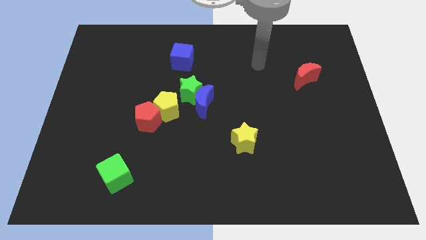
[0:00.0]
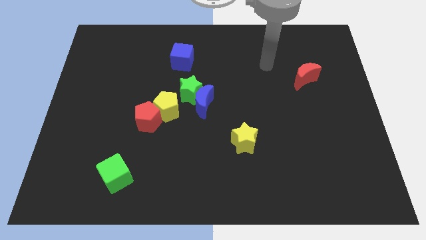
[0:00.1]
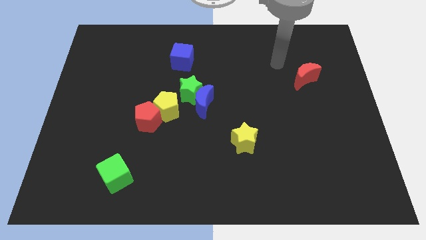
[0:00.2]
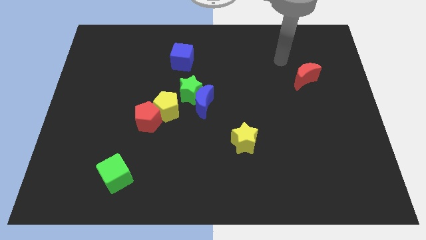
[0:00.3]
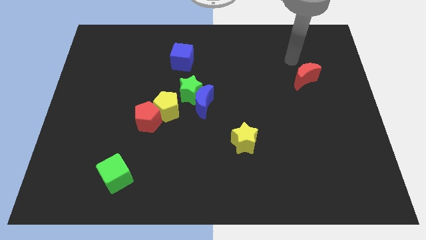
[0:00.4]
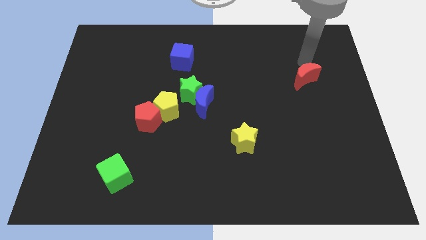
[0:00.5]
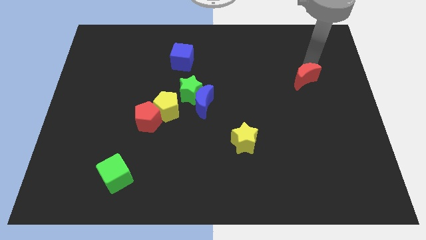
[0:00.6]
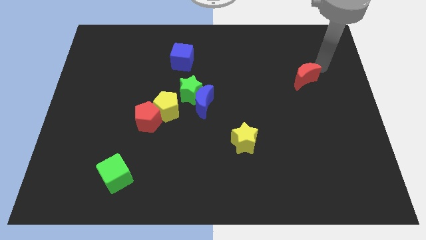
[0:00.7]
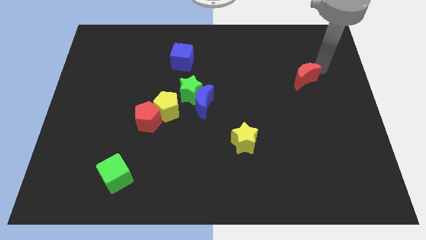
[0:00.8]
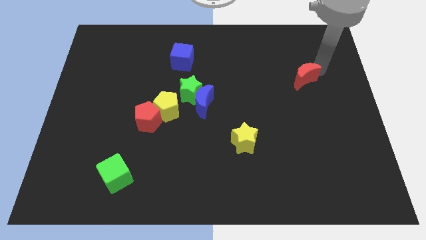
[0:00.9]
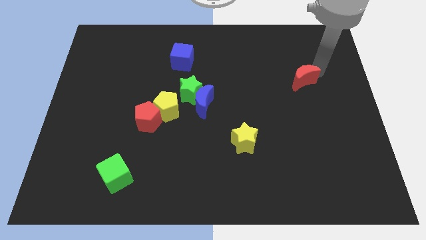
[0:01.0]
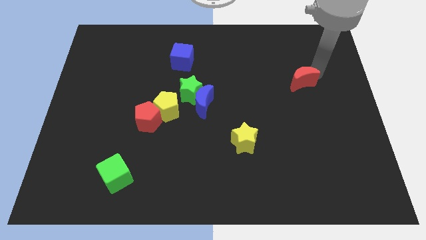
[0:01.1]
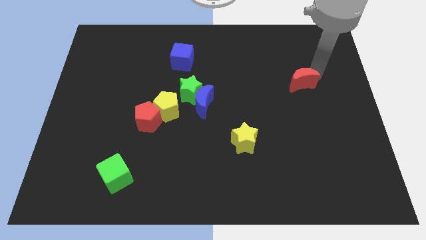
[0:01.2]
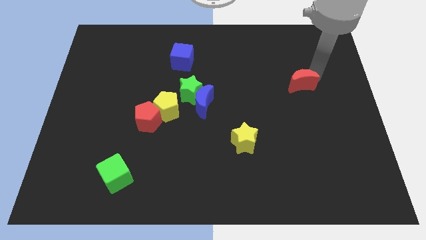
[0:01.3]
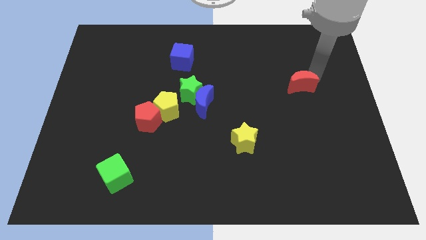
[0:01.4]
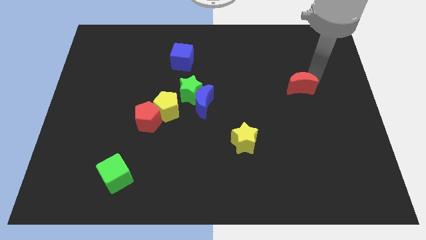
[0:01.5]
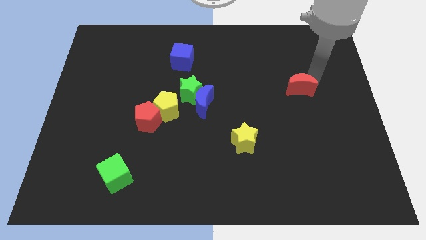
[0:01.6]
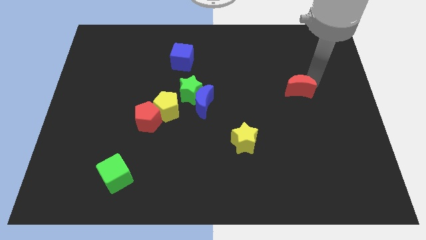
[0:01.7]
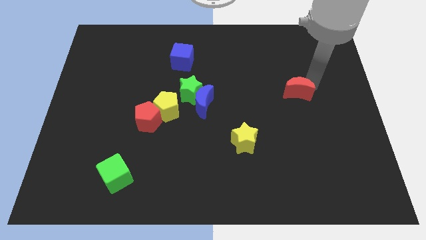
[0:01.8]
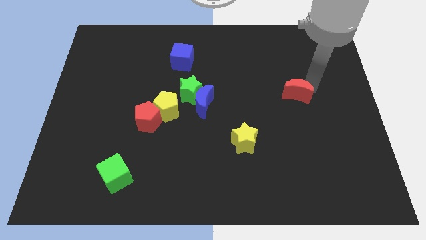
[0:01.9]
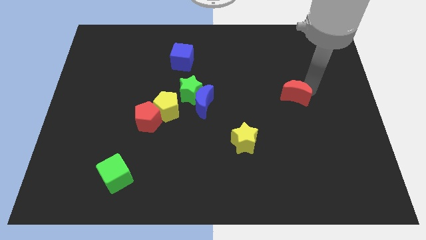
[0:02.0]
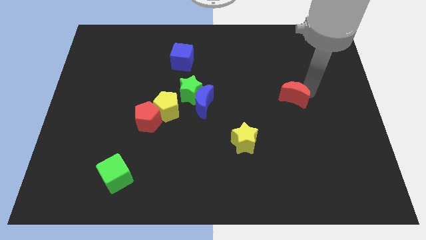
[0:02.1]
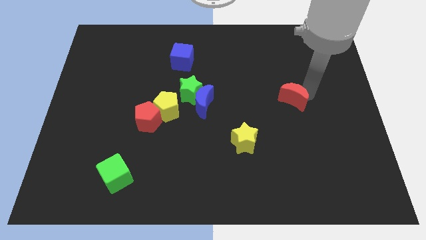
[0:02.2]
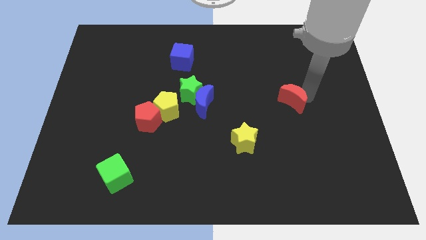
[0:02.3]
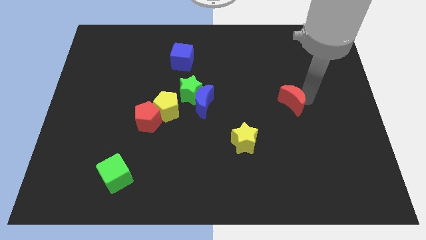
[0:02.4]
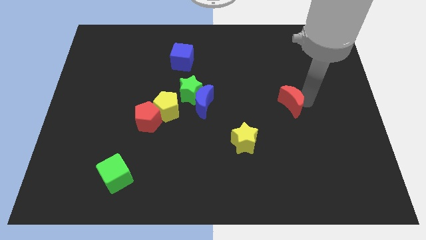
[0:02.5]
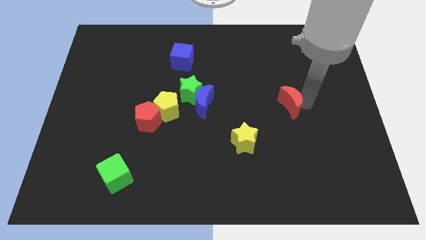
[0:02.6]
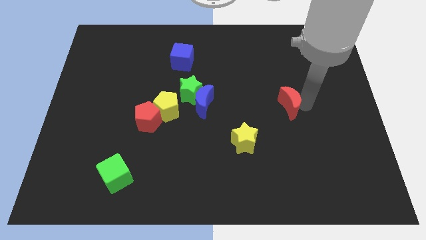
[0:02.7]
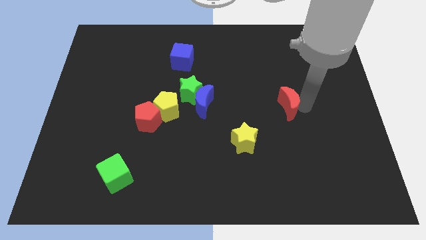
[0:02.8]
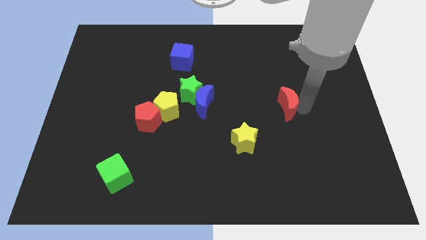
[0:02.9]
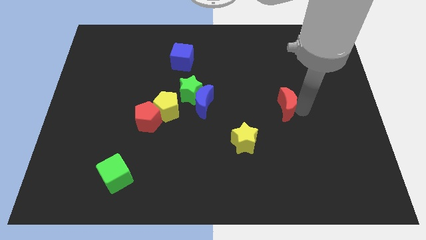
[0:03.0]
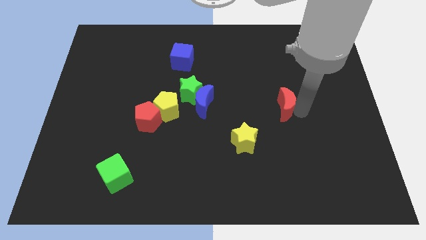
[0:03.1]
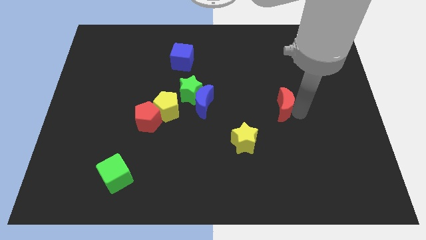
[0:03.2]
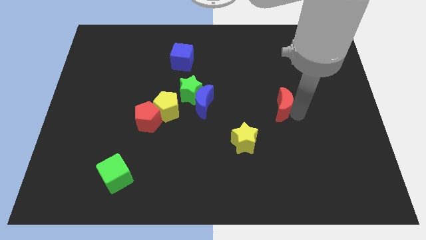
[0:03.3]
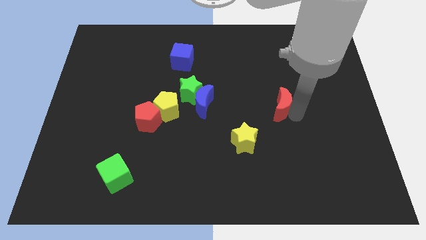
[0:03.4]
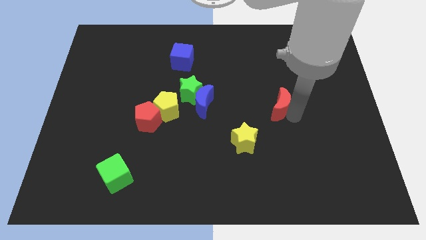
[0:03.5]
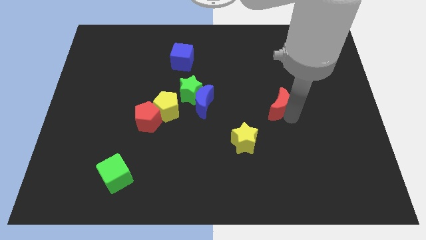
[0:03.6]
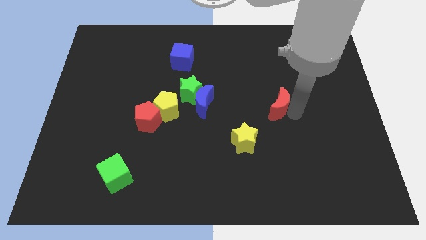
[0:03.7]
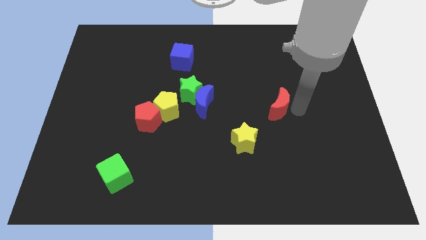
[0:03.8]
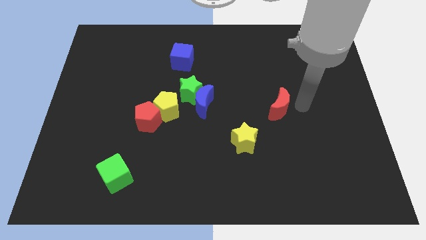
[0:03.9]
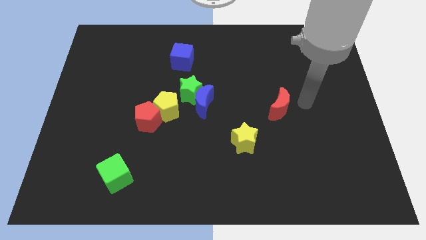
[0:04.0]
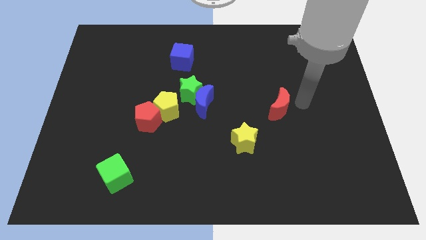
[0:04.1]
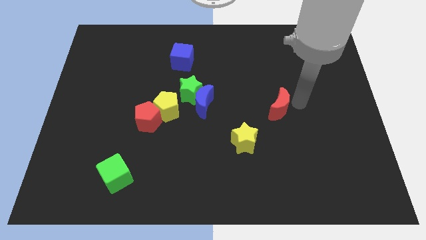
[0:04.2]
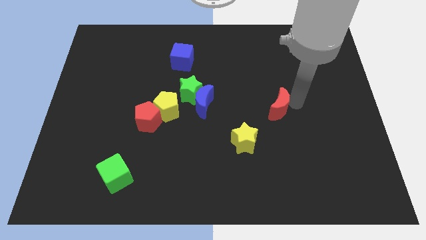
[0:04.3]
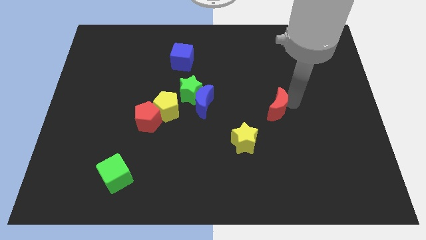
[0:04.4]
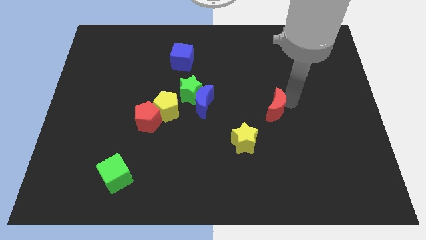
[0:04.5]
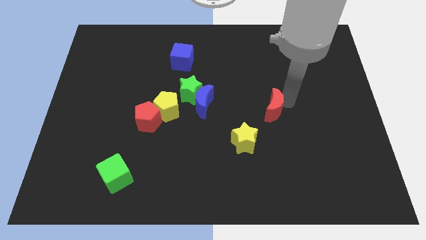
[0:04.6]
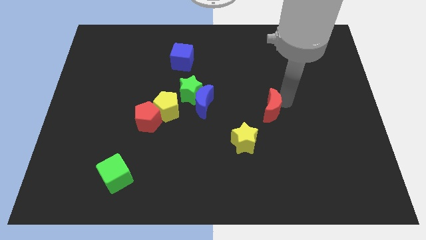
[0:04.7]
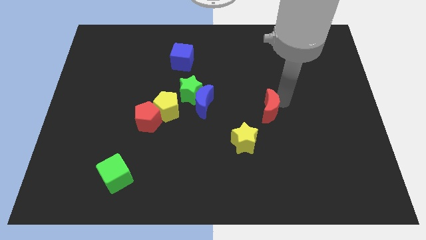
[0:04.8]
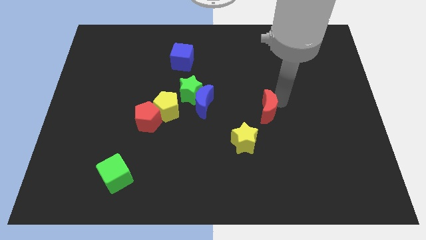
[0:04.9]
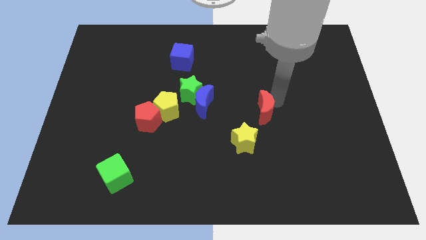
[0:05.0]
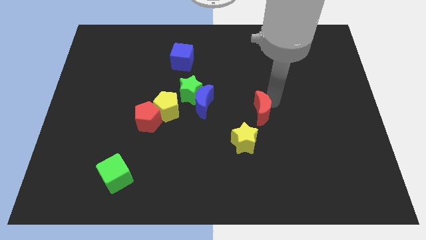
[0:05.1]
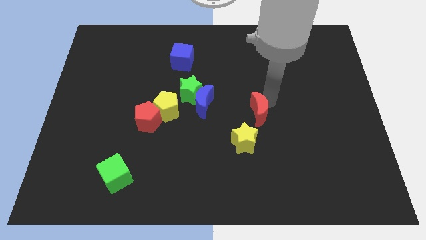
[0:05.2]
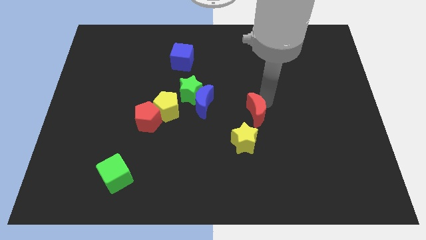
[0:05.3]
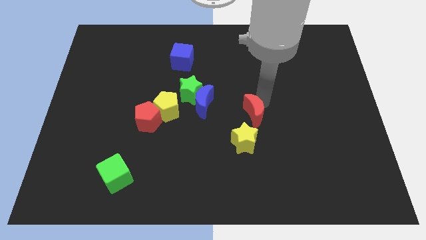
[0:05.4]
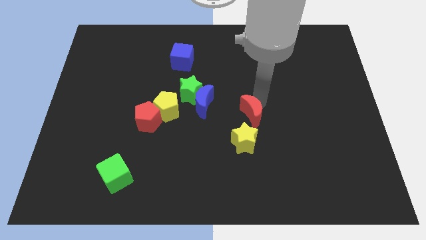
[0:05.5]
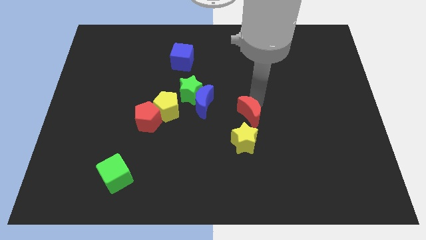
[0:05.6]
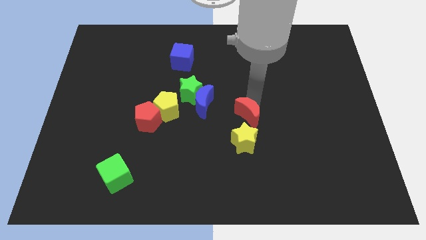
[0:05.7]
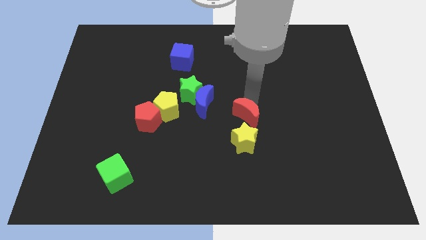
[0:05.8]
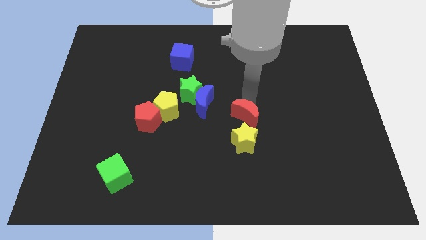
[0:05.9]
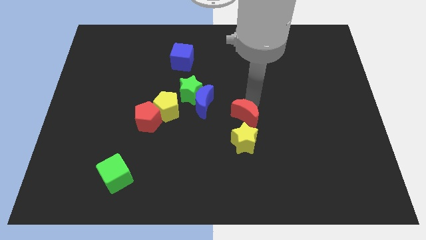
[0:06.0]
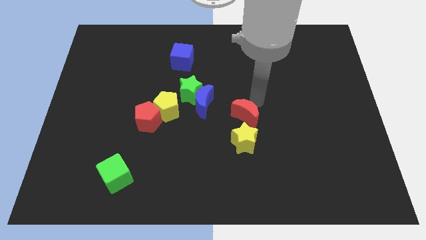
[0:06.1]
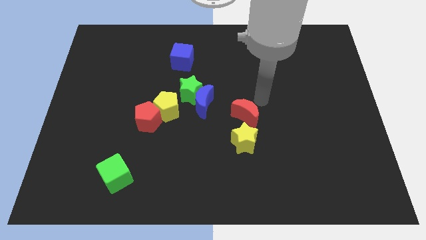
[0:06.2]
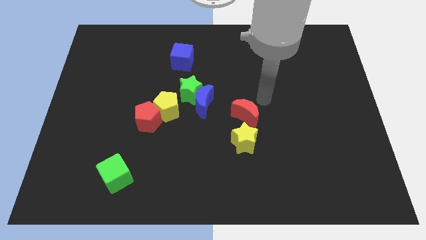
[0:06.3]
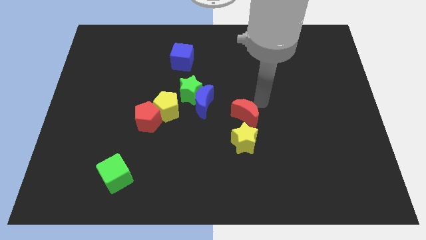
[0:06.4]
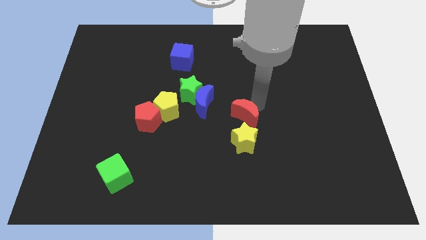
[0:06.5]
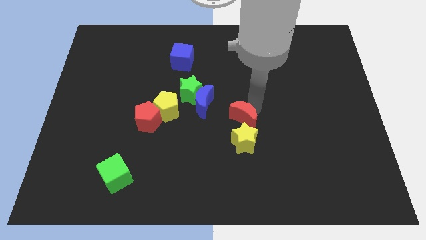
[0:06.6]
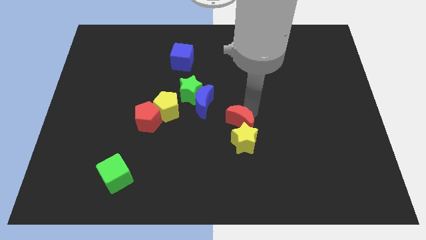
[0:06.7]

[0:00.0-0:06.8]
move the red moon downwards and to the left

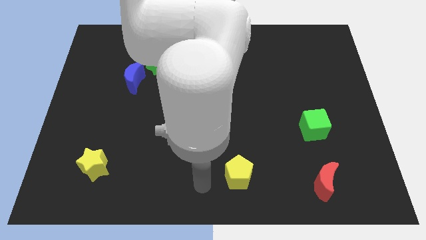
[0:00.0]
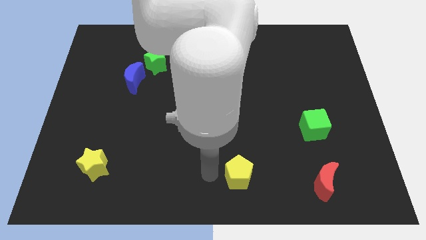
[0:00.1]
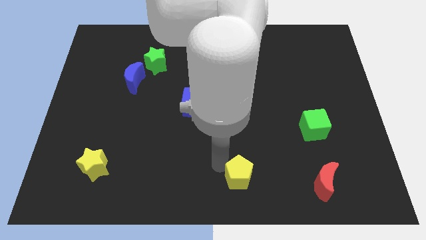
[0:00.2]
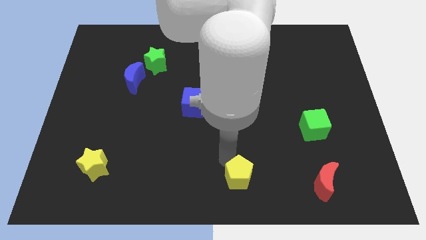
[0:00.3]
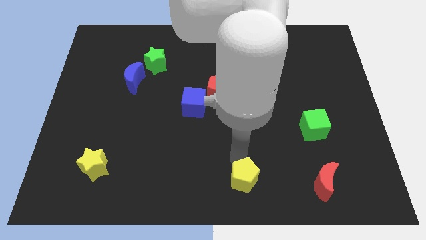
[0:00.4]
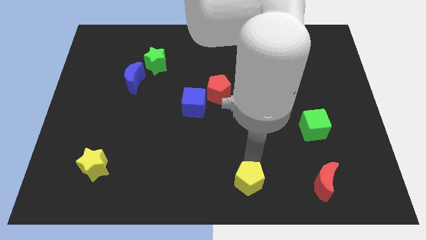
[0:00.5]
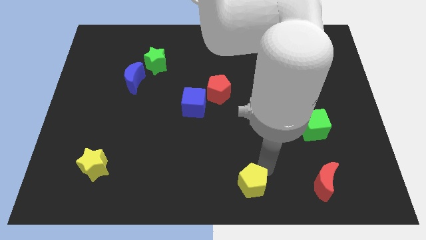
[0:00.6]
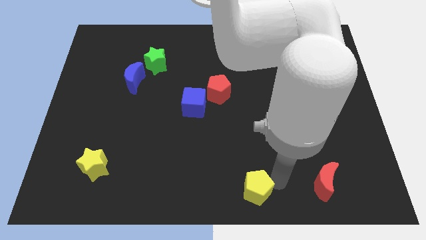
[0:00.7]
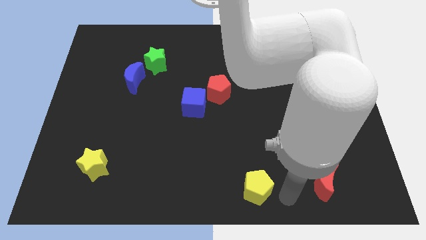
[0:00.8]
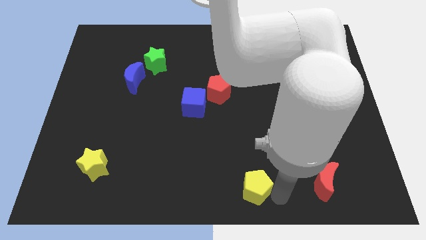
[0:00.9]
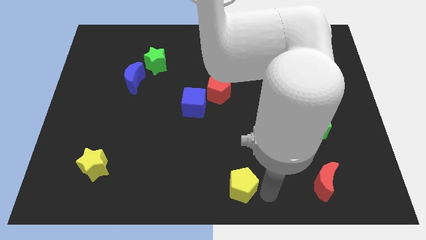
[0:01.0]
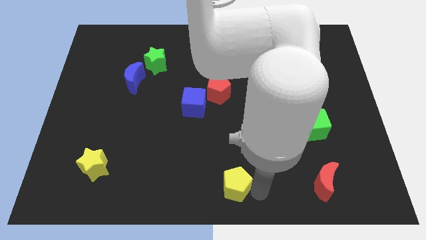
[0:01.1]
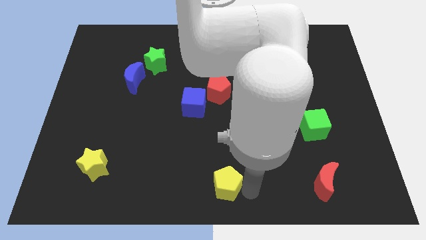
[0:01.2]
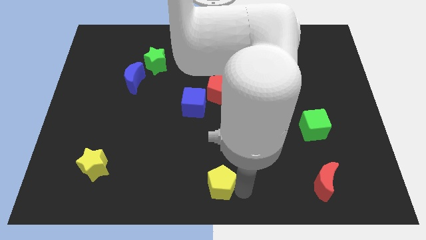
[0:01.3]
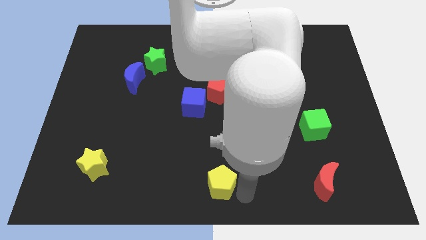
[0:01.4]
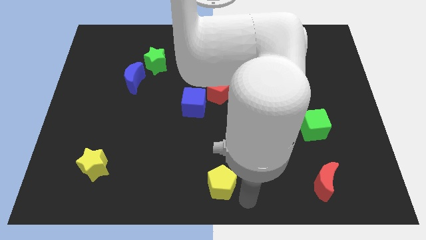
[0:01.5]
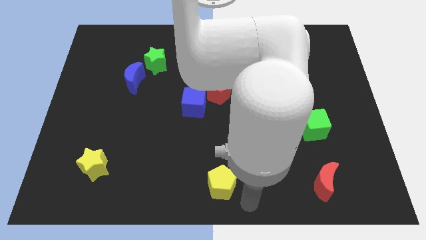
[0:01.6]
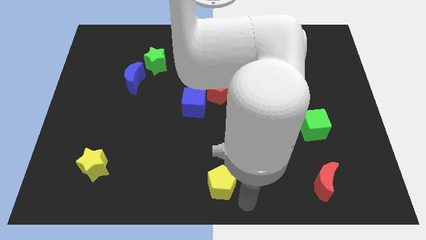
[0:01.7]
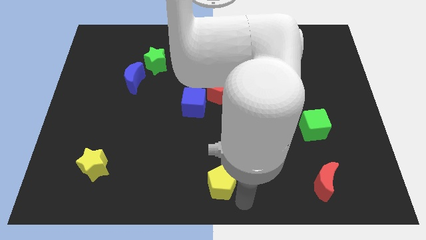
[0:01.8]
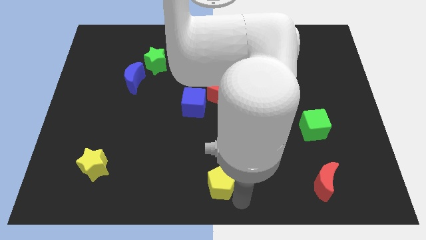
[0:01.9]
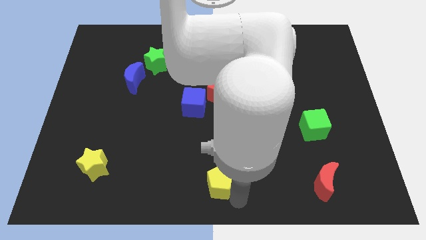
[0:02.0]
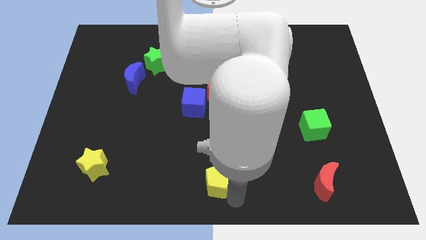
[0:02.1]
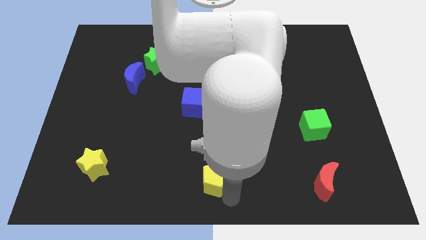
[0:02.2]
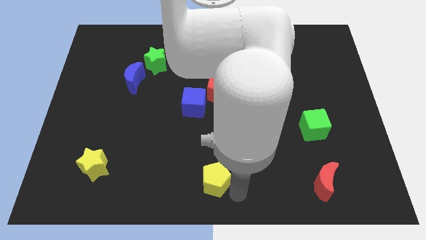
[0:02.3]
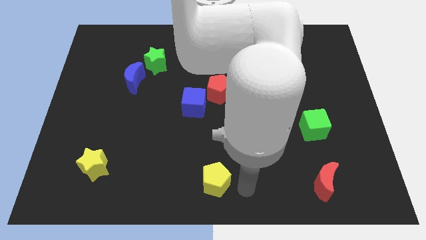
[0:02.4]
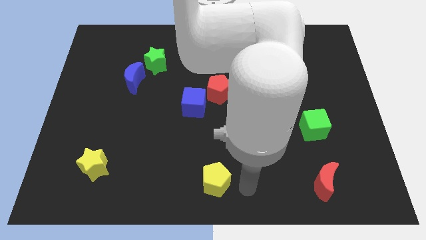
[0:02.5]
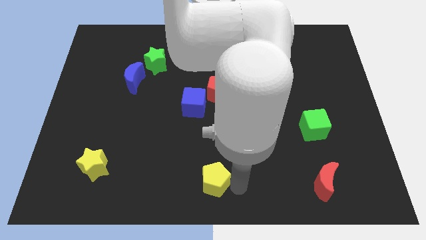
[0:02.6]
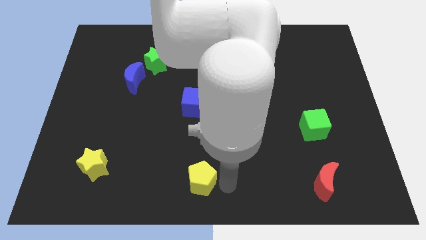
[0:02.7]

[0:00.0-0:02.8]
slide the yellow pentagon to the left a bit
